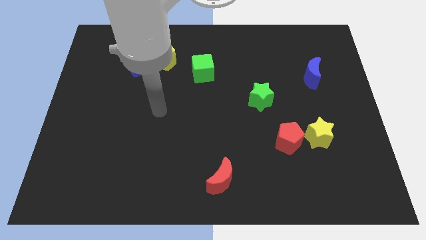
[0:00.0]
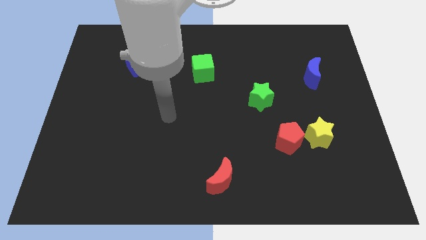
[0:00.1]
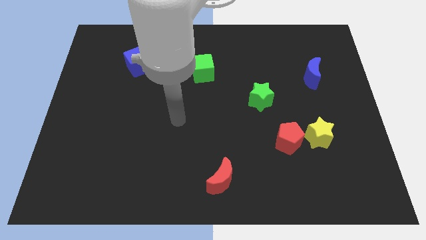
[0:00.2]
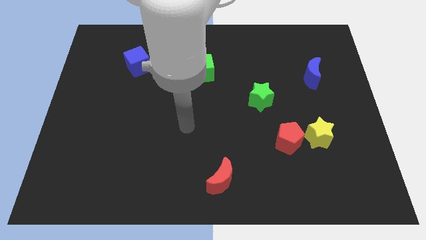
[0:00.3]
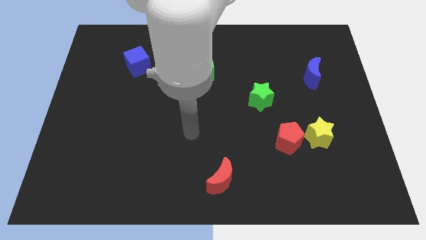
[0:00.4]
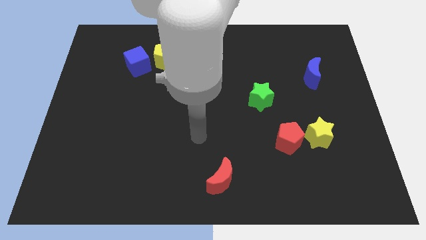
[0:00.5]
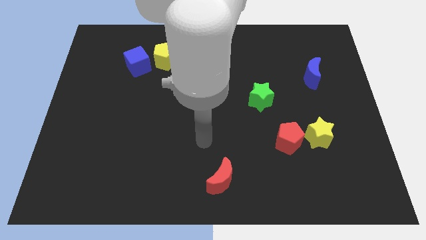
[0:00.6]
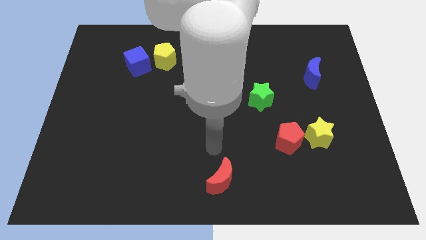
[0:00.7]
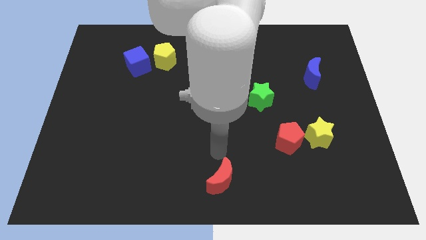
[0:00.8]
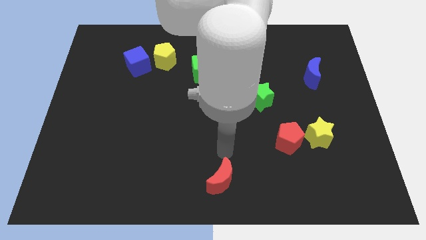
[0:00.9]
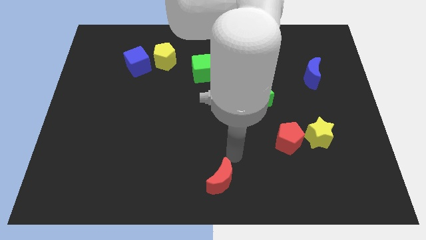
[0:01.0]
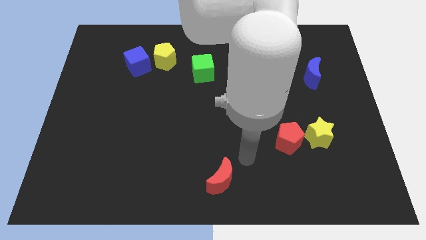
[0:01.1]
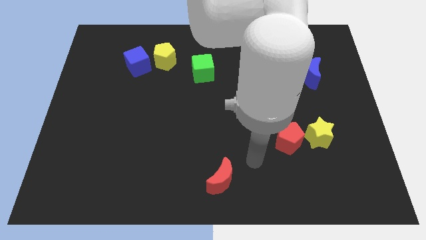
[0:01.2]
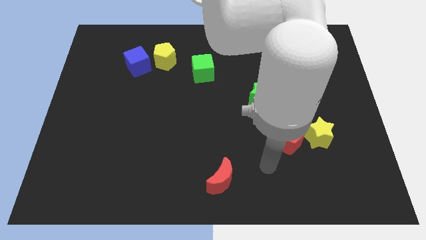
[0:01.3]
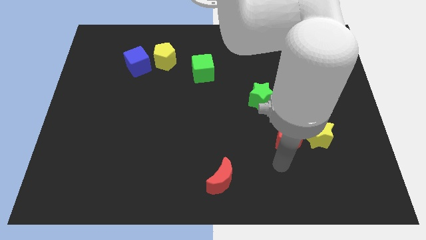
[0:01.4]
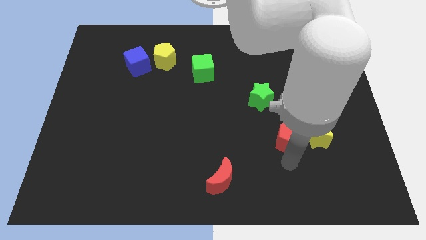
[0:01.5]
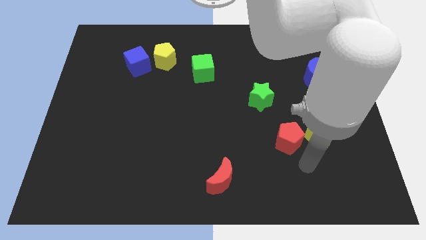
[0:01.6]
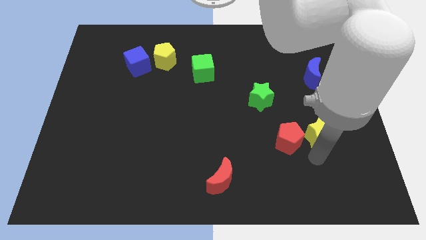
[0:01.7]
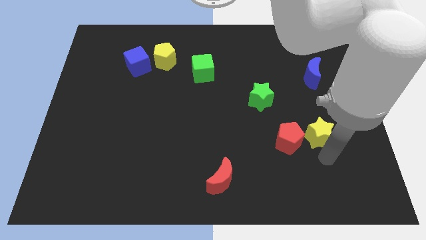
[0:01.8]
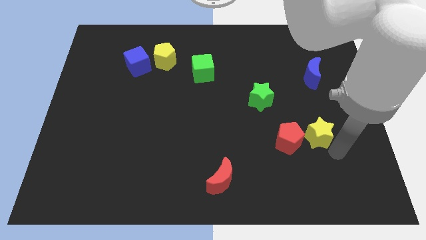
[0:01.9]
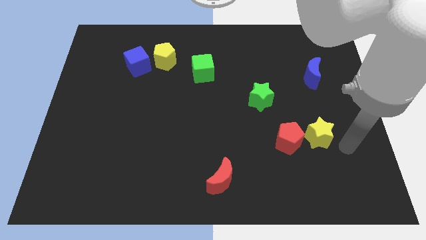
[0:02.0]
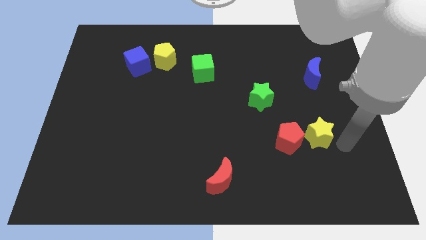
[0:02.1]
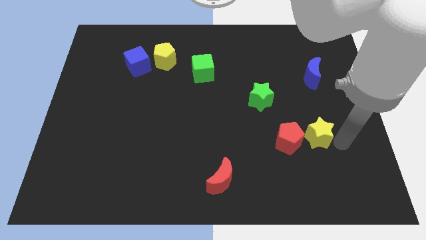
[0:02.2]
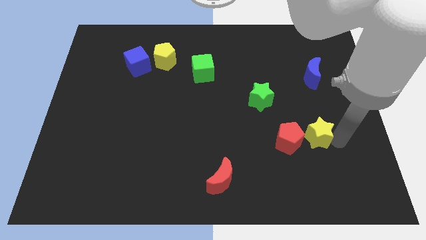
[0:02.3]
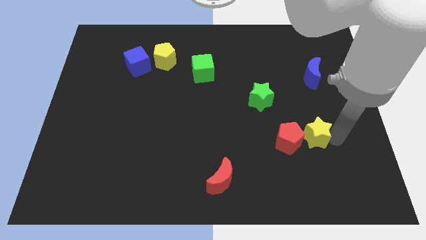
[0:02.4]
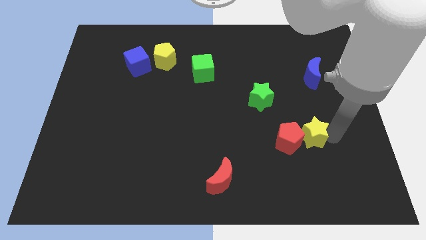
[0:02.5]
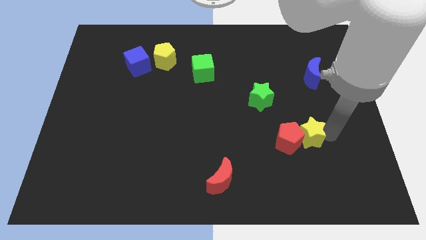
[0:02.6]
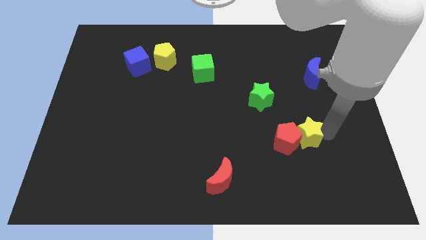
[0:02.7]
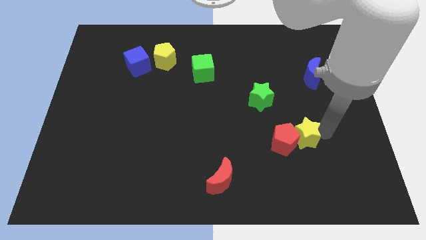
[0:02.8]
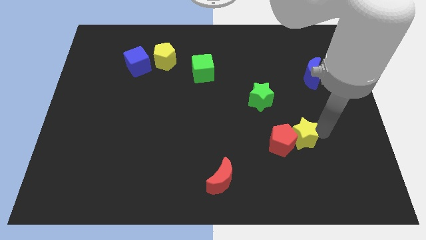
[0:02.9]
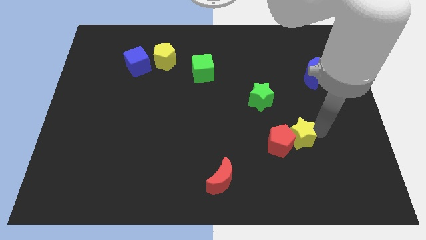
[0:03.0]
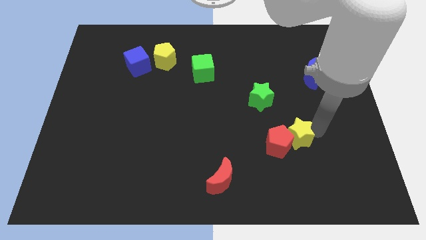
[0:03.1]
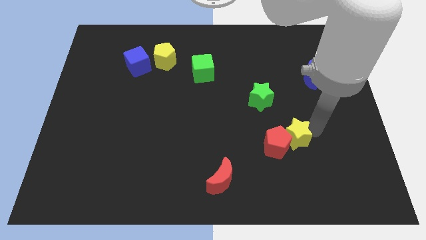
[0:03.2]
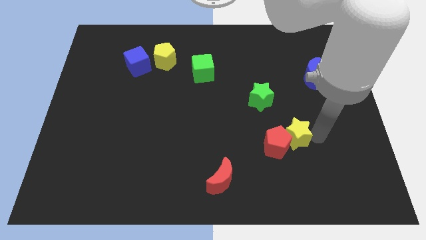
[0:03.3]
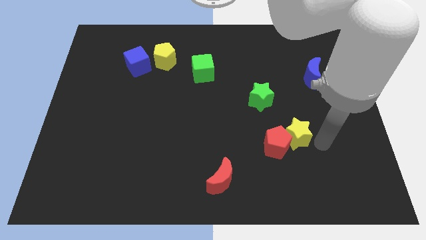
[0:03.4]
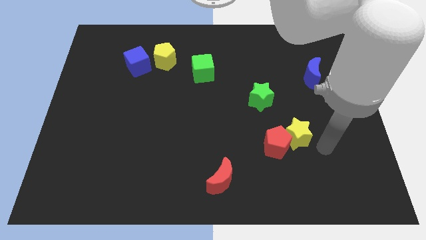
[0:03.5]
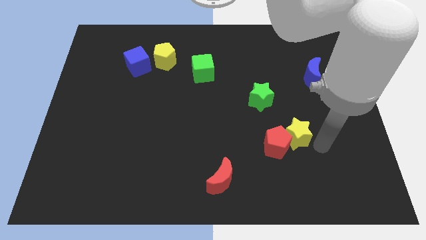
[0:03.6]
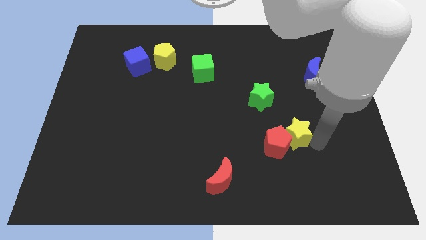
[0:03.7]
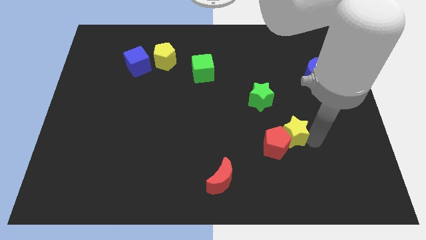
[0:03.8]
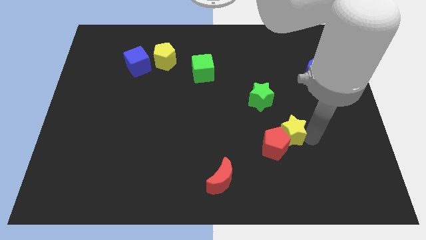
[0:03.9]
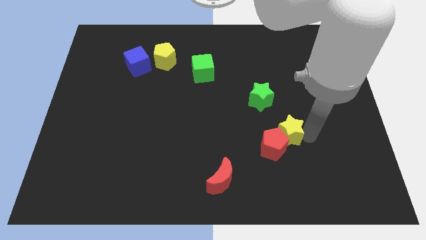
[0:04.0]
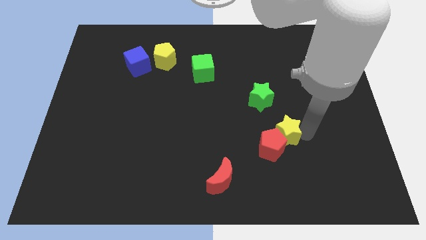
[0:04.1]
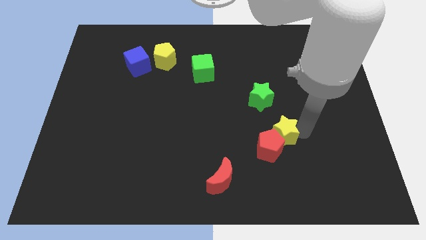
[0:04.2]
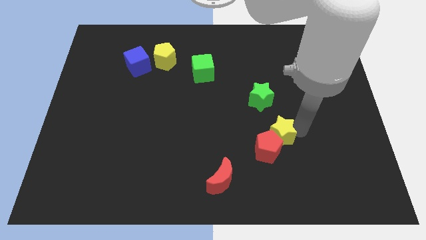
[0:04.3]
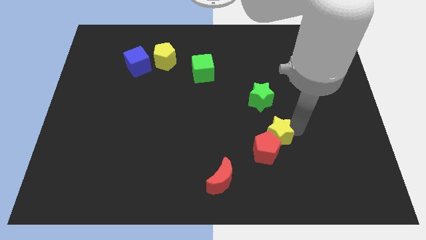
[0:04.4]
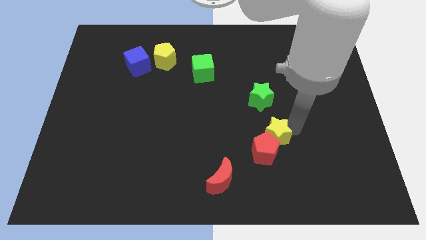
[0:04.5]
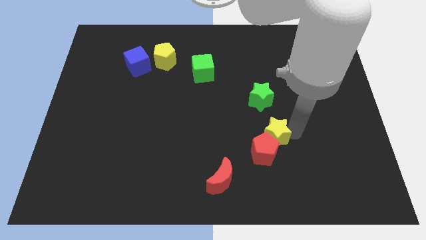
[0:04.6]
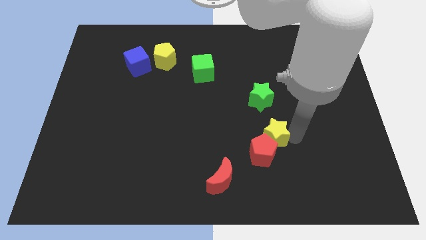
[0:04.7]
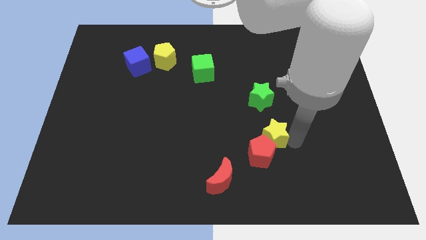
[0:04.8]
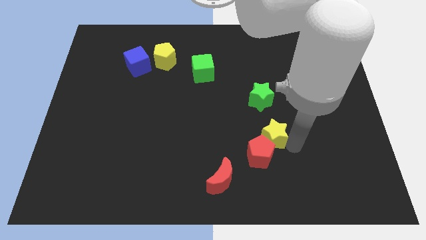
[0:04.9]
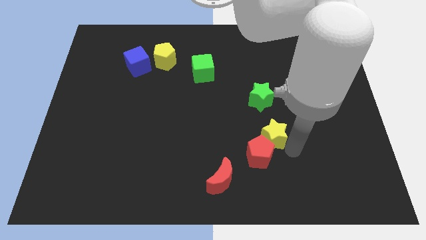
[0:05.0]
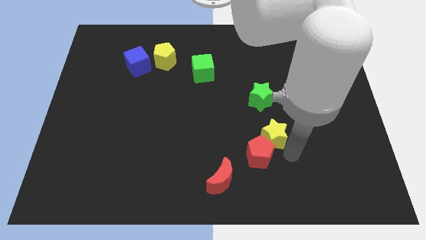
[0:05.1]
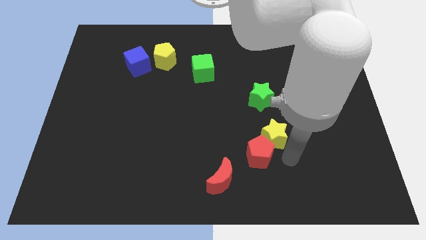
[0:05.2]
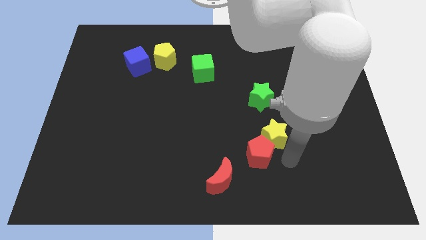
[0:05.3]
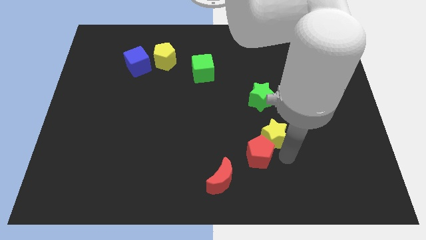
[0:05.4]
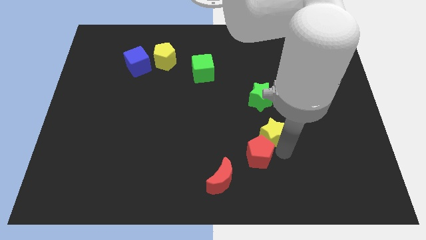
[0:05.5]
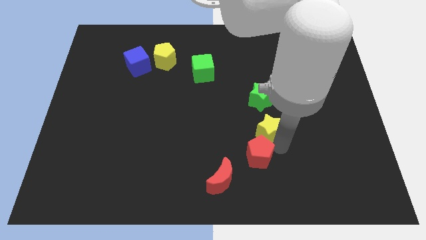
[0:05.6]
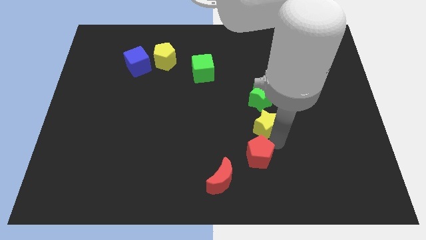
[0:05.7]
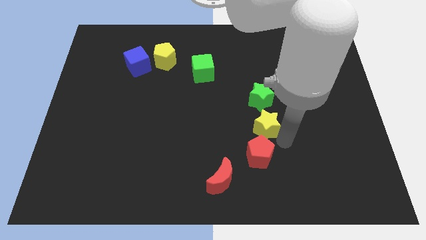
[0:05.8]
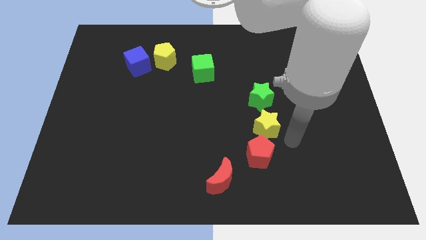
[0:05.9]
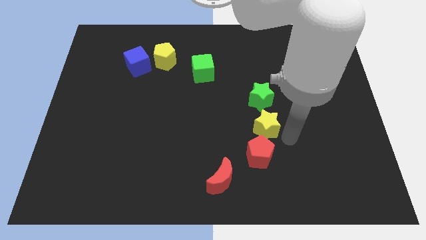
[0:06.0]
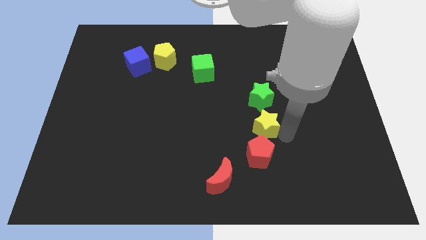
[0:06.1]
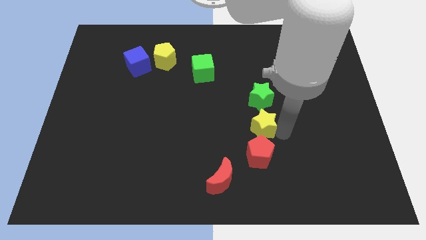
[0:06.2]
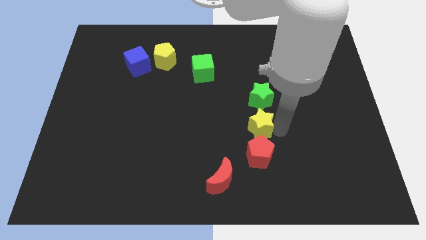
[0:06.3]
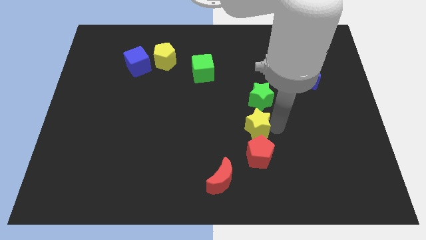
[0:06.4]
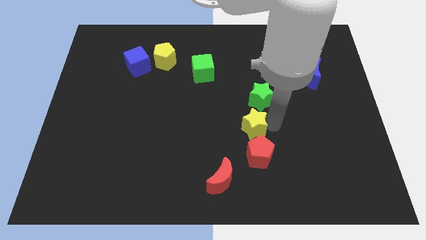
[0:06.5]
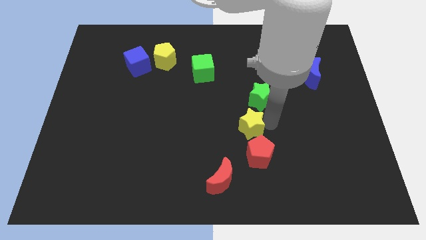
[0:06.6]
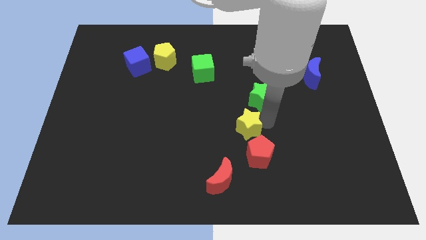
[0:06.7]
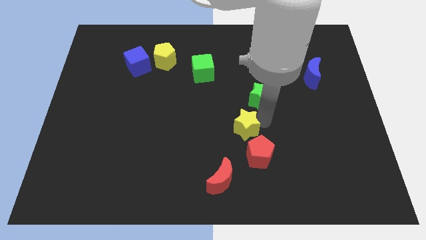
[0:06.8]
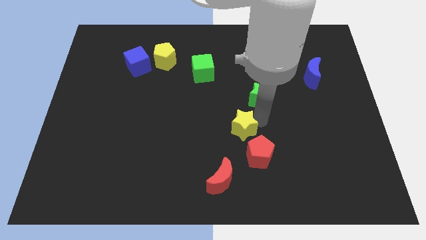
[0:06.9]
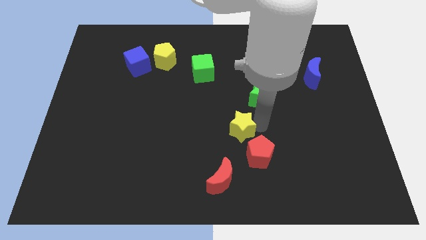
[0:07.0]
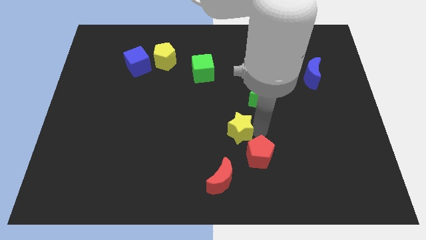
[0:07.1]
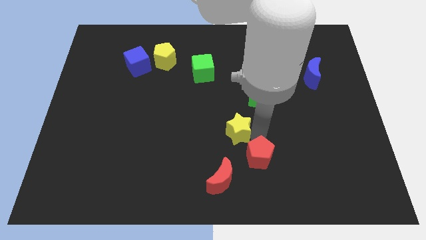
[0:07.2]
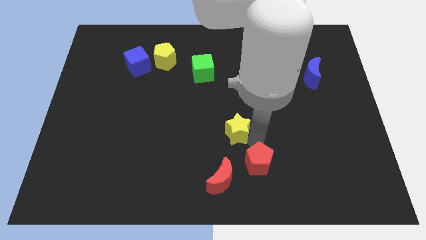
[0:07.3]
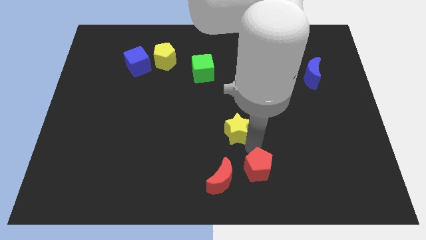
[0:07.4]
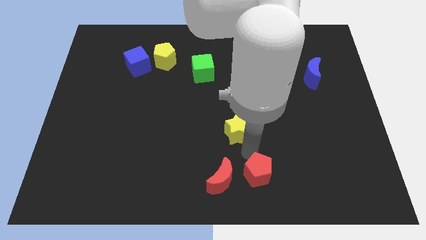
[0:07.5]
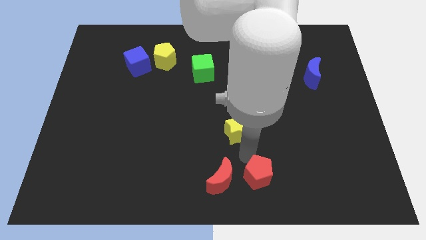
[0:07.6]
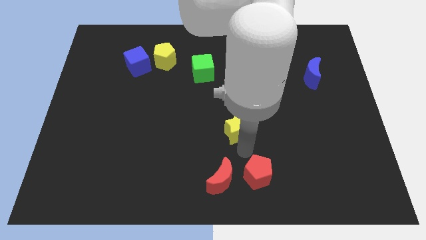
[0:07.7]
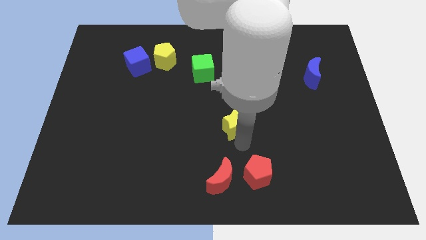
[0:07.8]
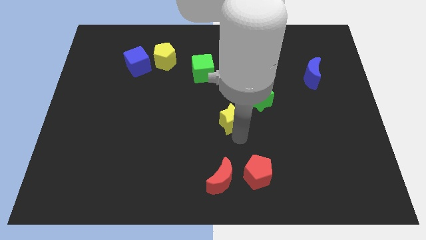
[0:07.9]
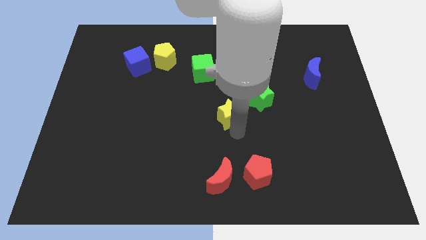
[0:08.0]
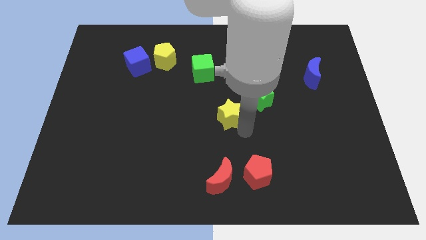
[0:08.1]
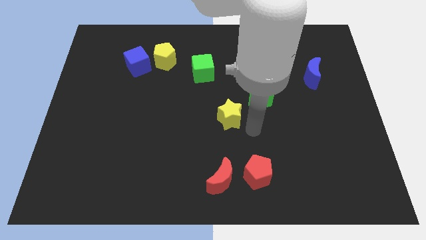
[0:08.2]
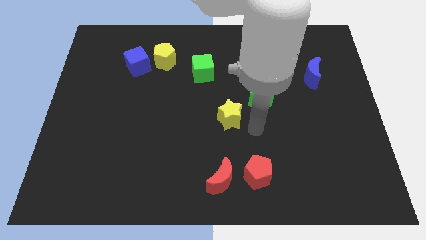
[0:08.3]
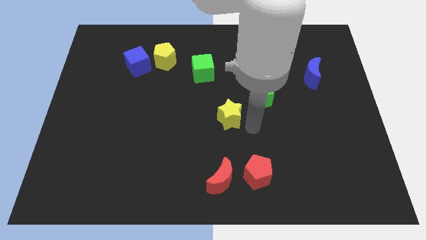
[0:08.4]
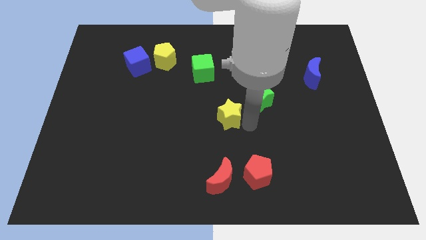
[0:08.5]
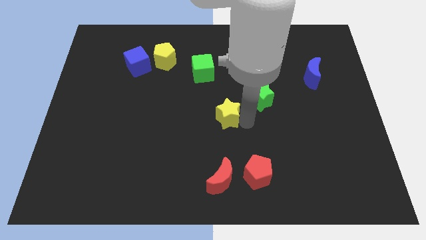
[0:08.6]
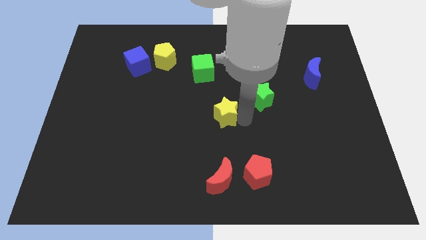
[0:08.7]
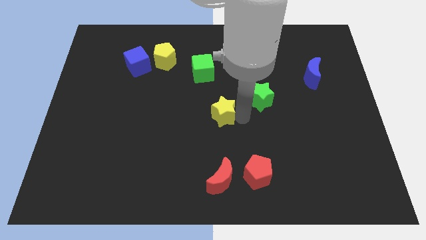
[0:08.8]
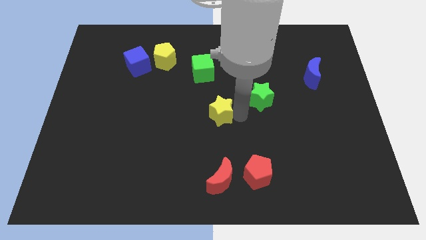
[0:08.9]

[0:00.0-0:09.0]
push the yellow star to the bottom side of the green cube
